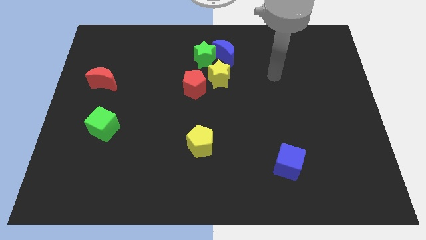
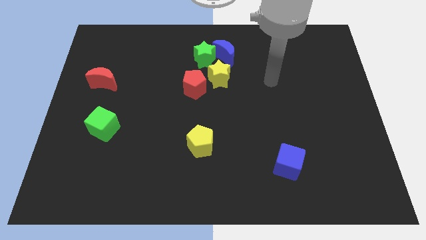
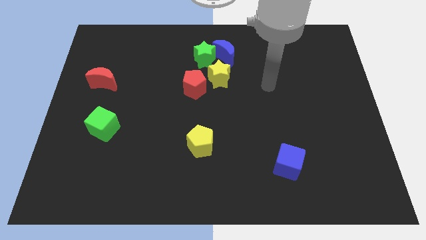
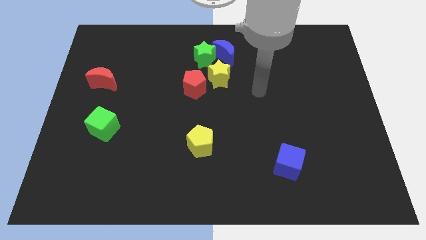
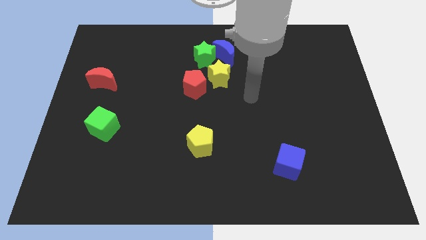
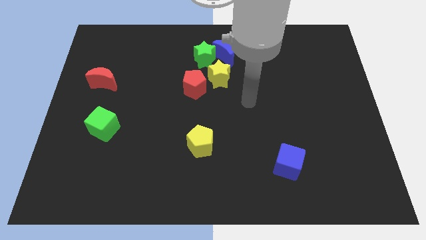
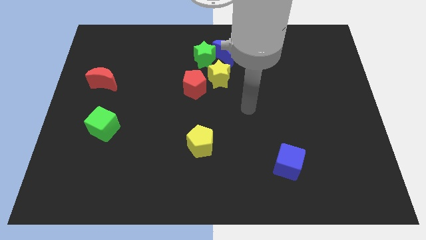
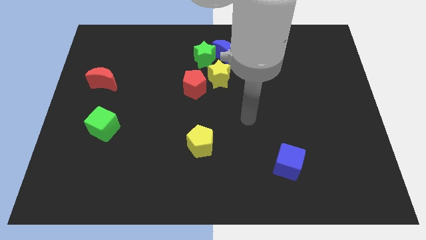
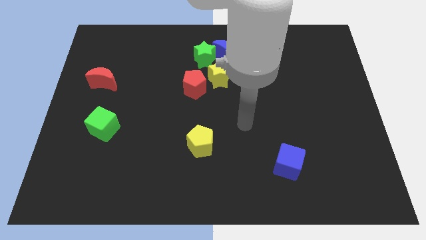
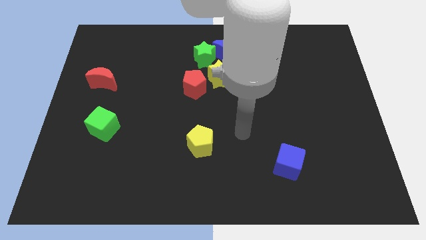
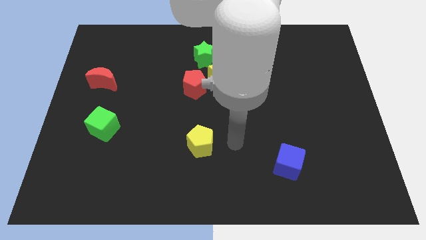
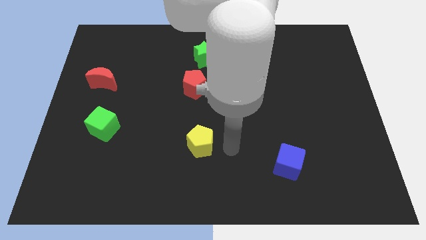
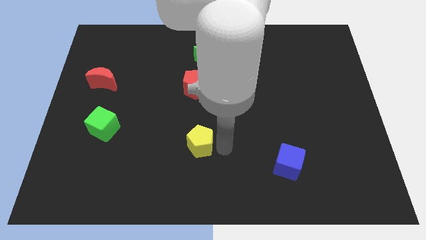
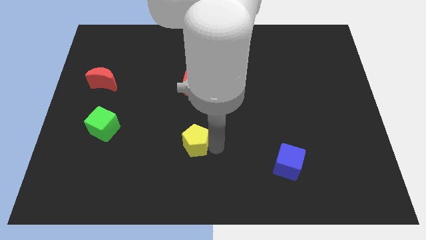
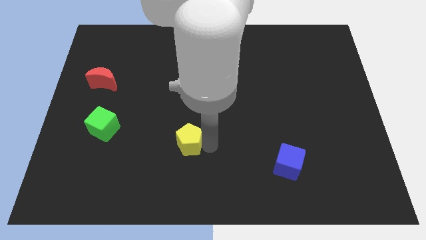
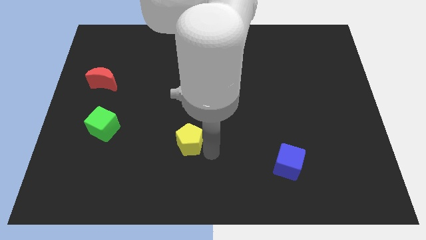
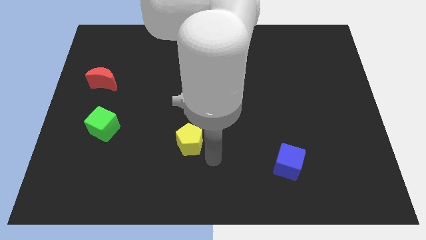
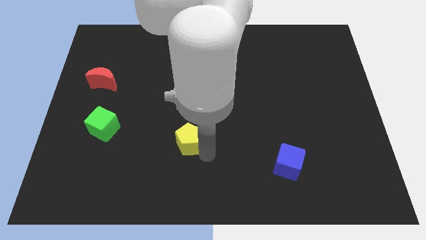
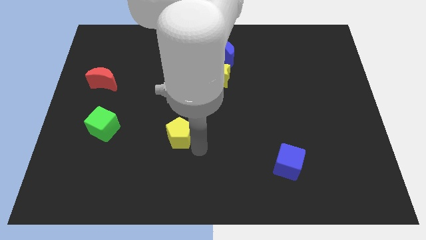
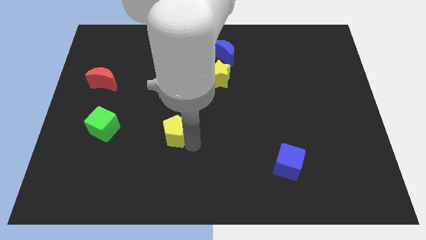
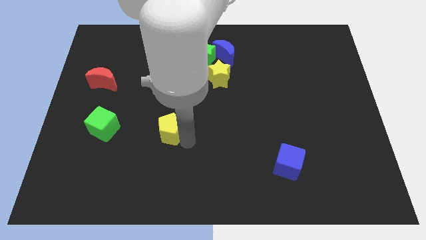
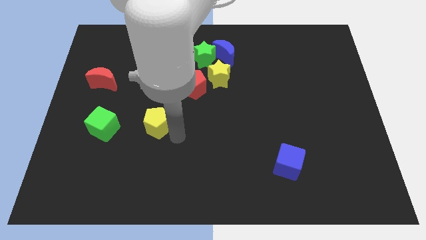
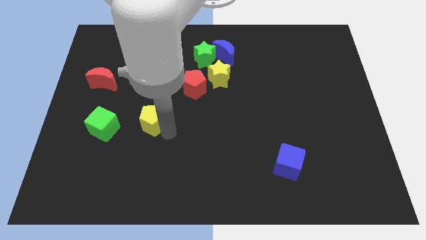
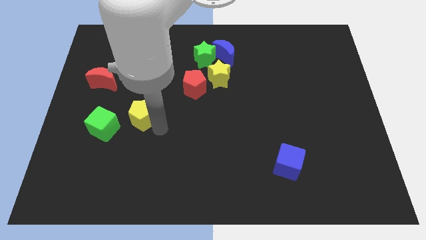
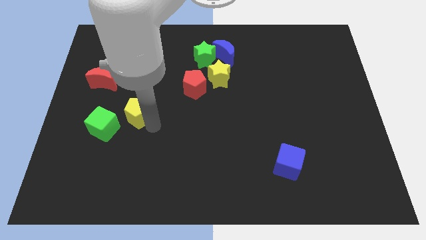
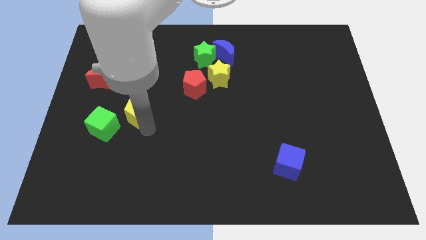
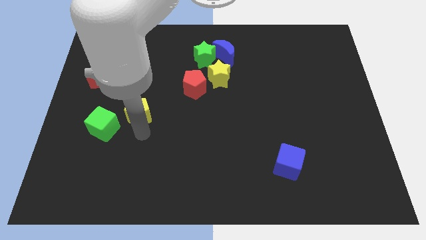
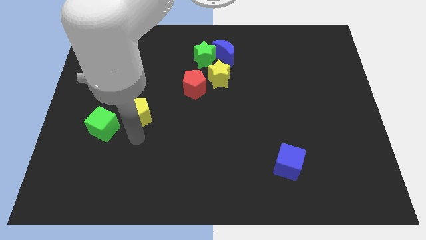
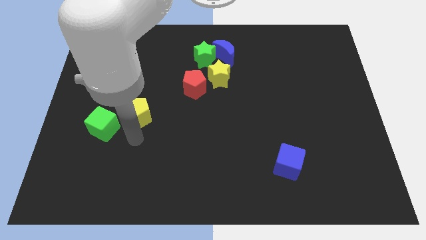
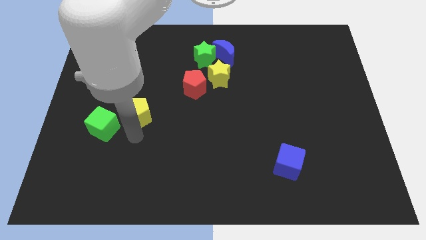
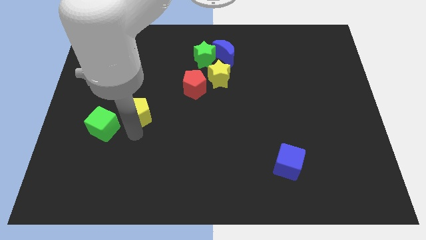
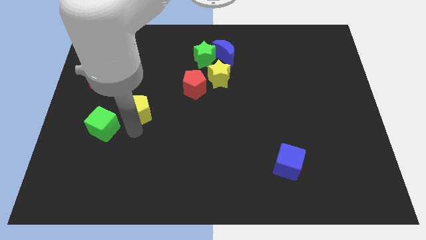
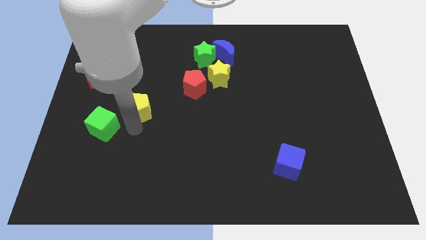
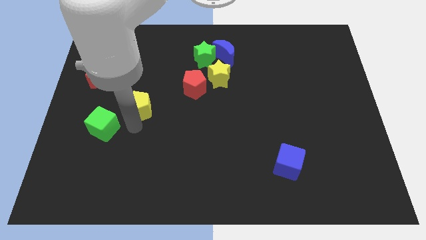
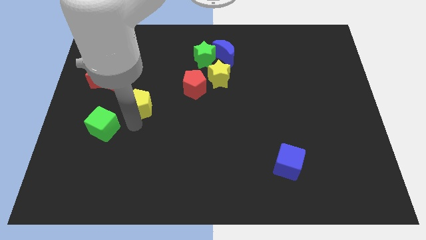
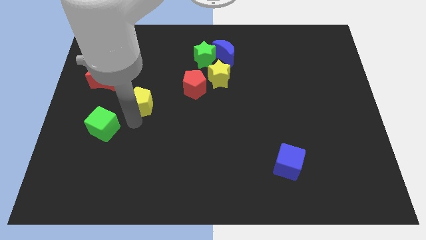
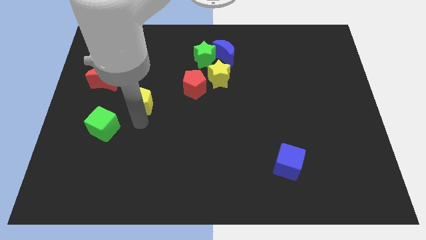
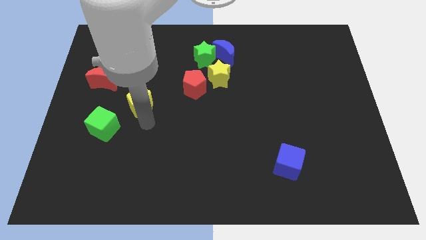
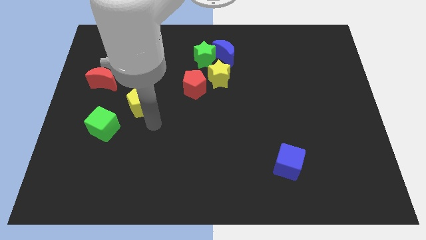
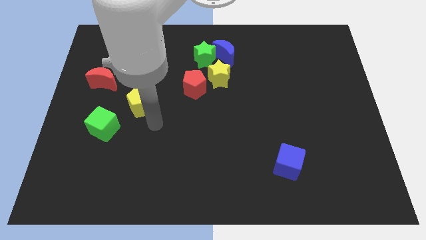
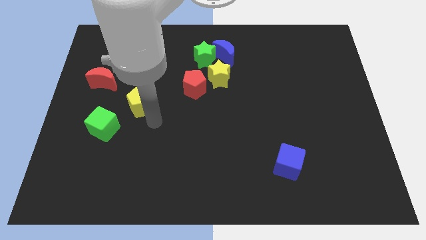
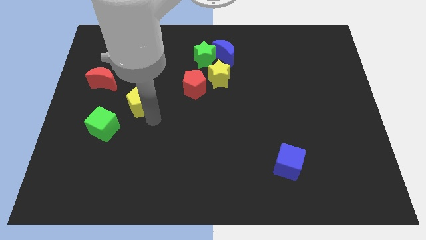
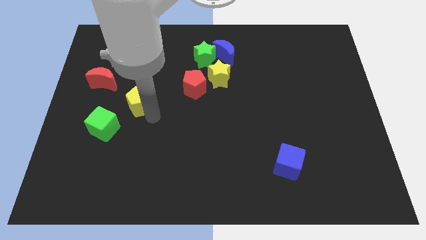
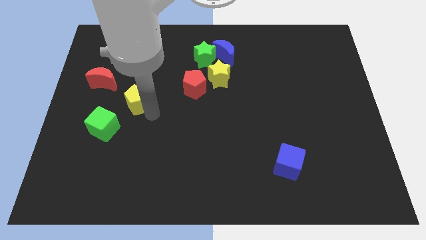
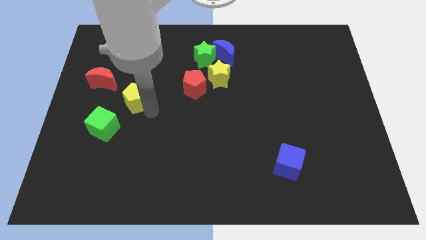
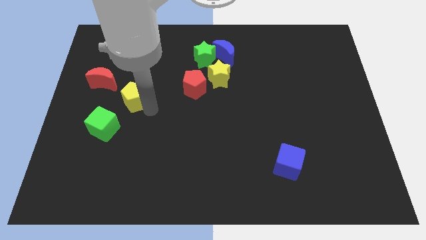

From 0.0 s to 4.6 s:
move the yellow pentagon upwards and then to the left

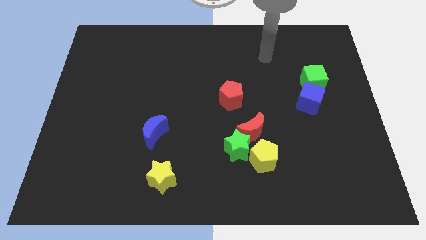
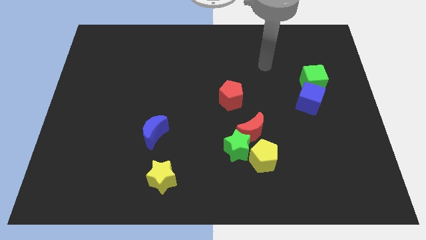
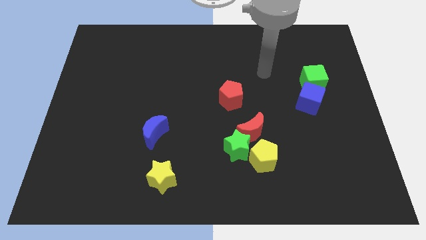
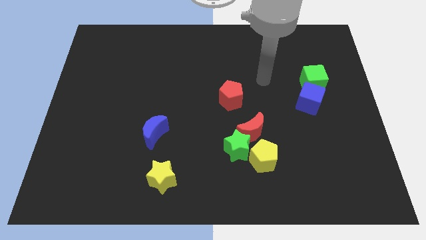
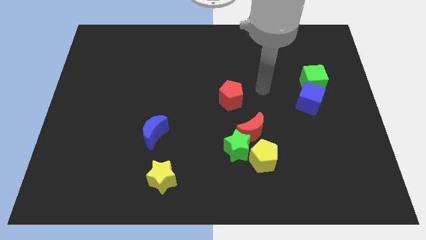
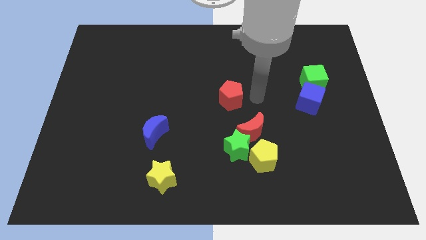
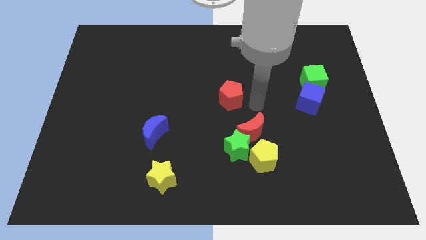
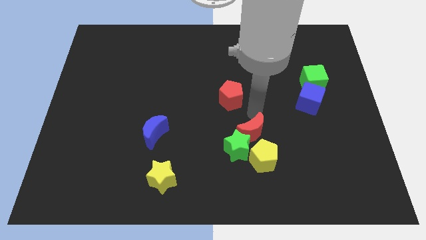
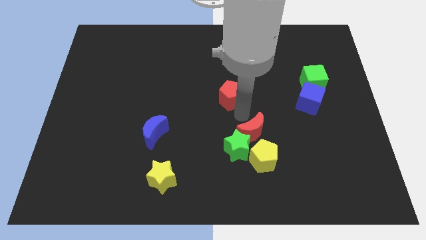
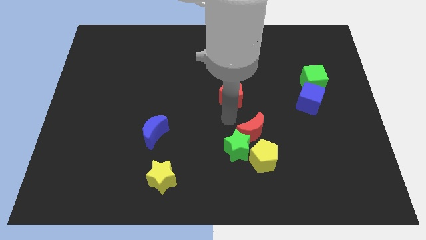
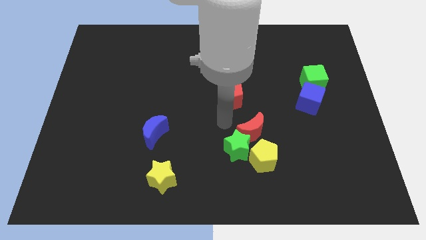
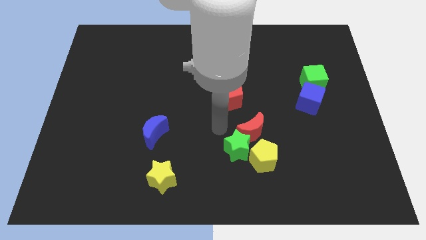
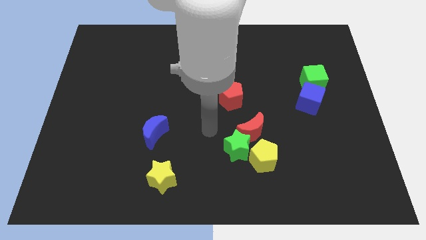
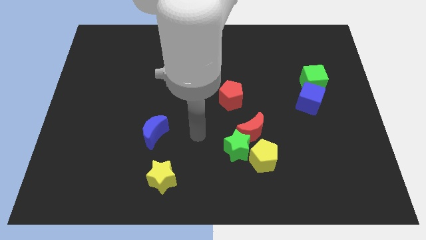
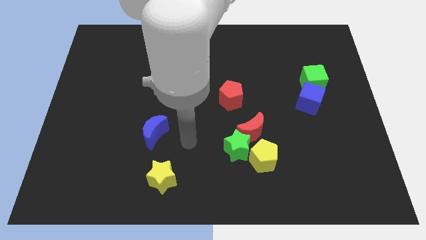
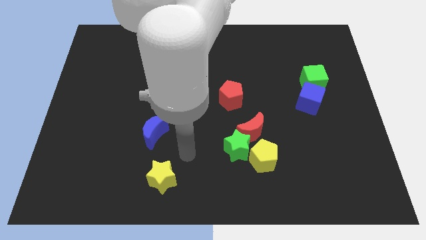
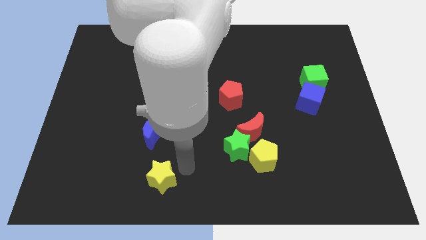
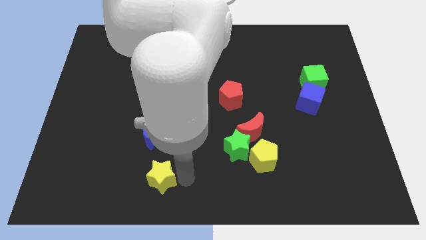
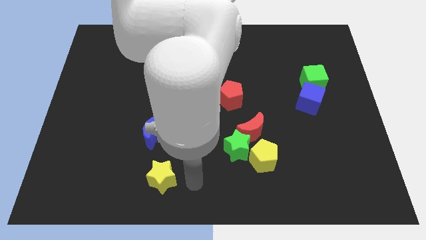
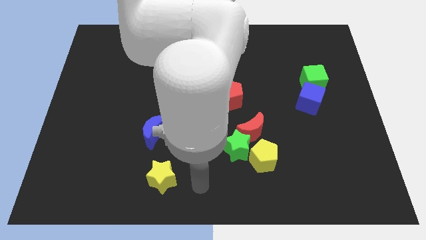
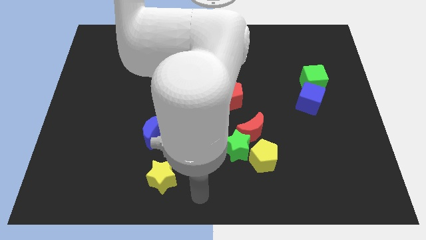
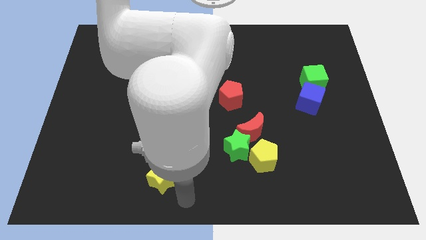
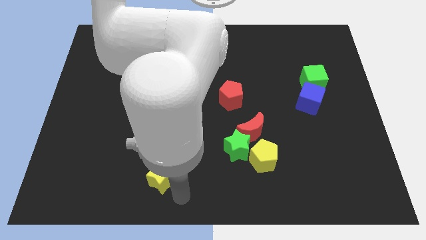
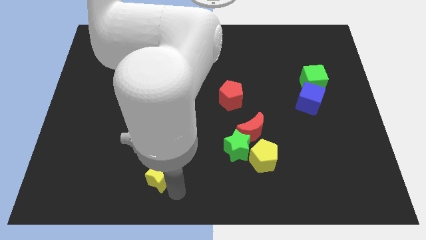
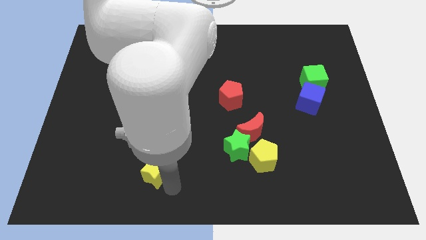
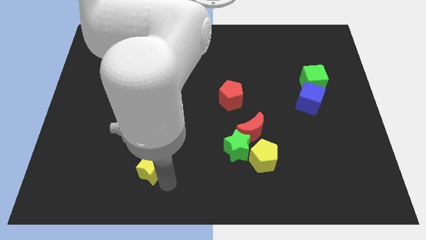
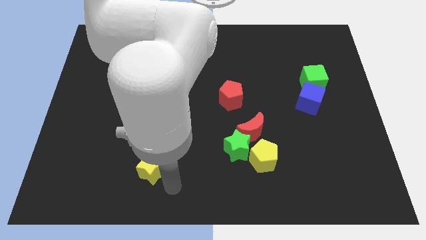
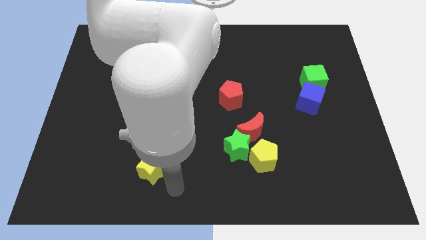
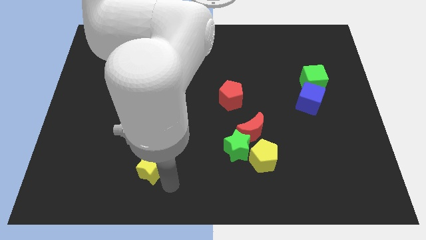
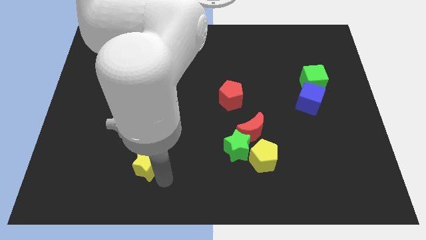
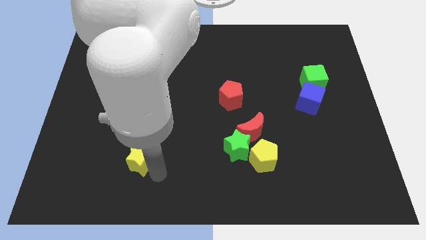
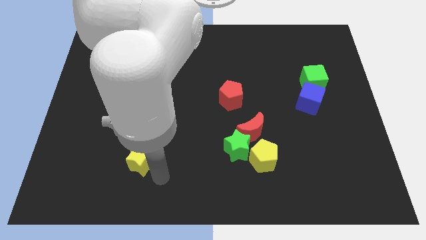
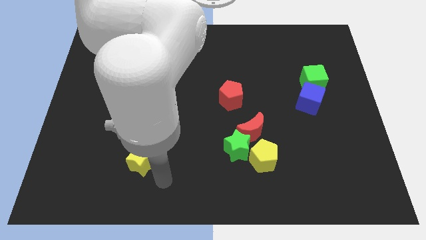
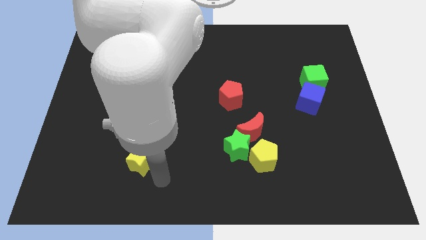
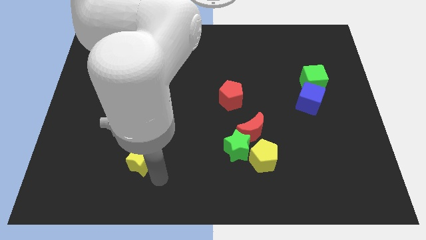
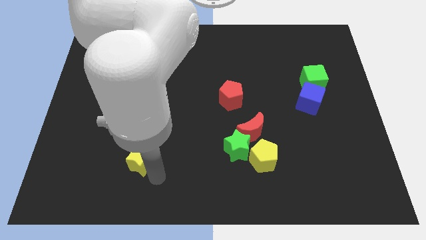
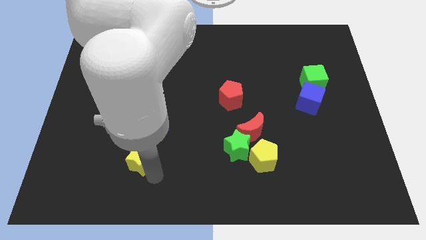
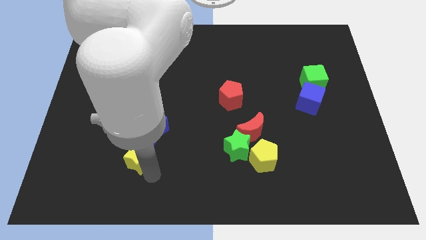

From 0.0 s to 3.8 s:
slide the yellow star upwards and to the left diagonally somewhat
